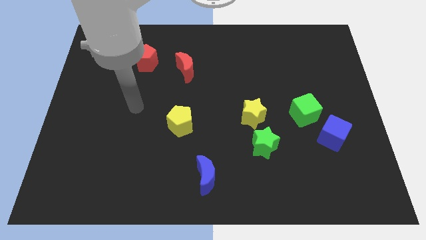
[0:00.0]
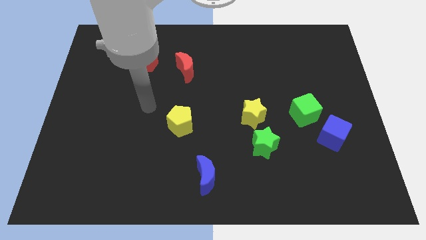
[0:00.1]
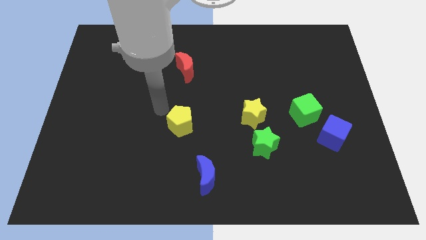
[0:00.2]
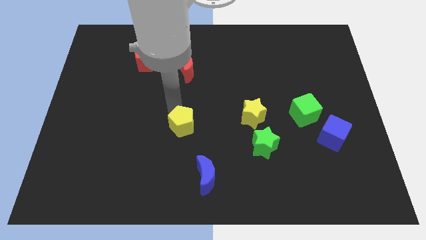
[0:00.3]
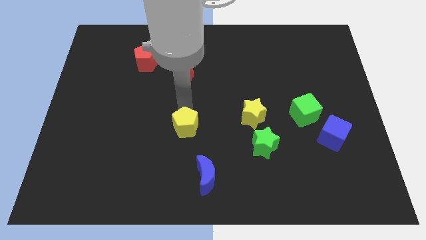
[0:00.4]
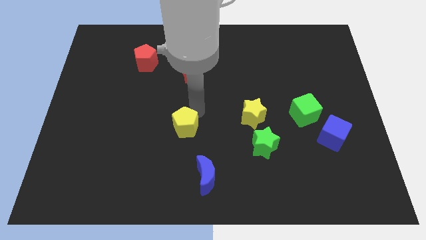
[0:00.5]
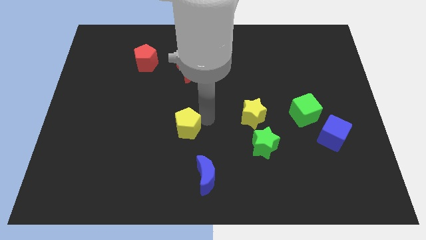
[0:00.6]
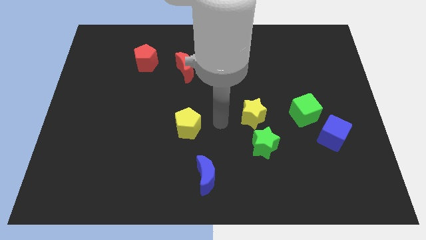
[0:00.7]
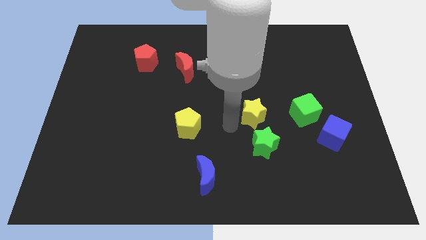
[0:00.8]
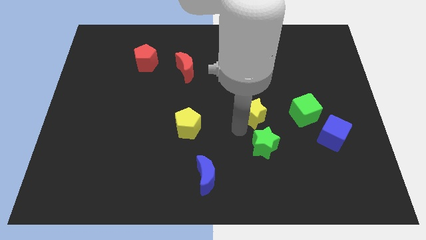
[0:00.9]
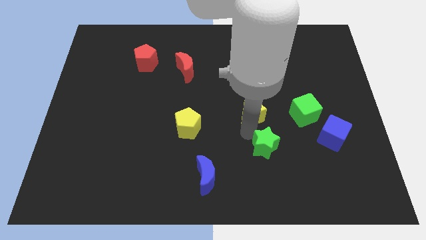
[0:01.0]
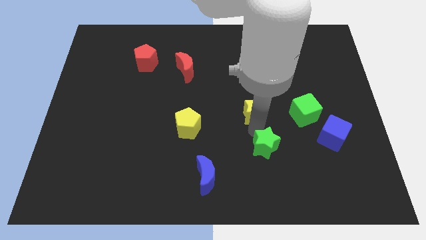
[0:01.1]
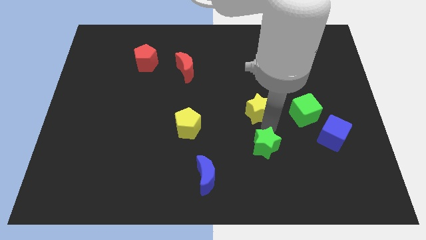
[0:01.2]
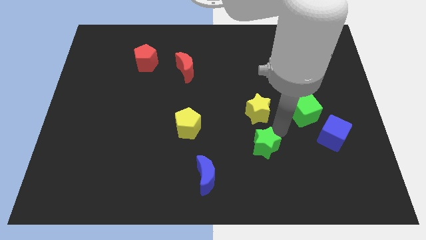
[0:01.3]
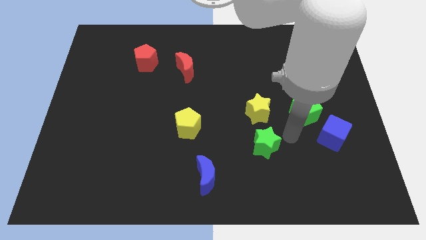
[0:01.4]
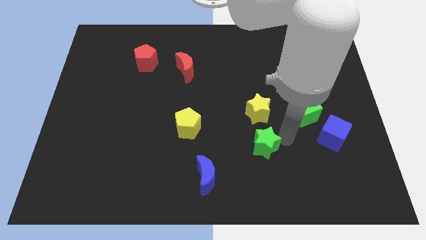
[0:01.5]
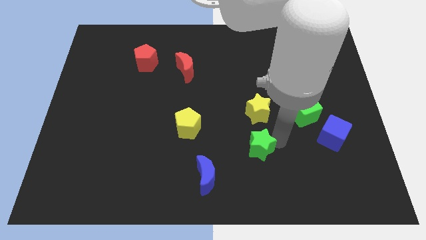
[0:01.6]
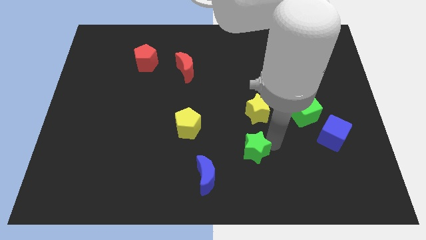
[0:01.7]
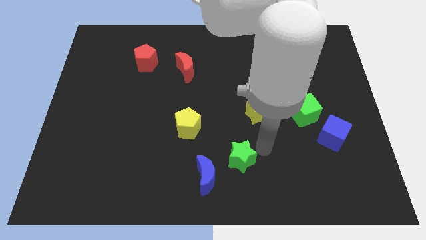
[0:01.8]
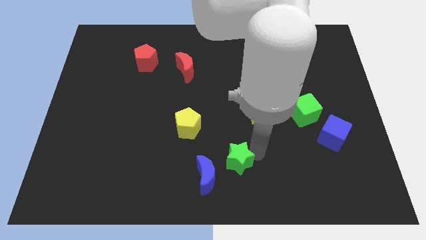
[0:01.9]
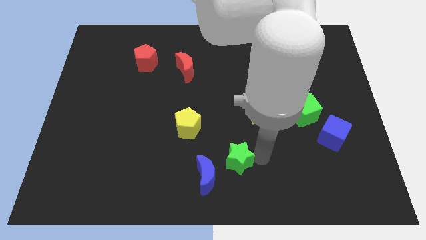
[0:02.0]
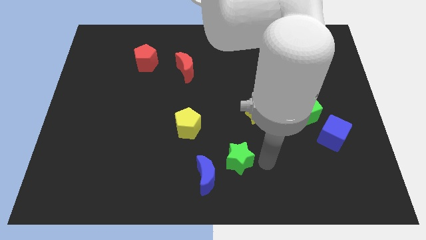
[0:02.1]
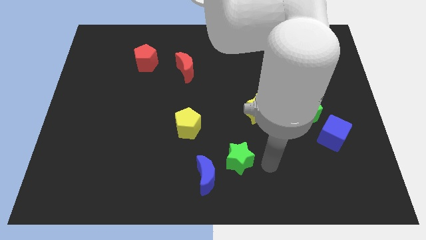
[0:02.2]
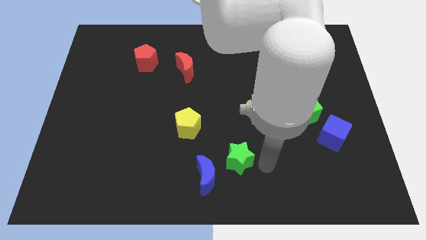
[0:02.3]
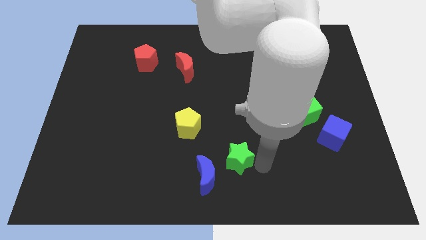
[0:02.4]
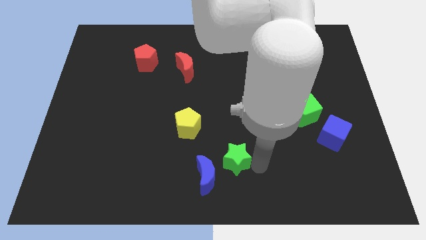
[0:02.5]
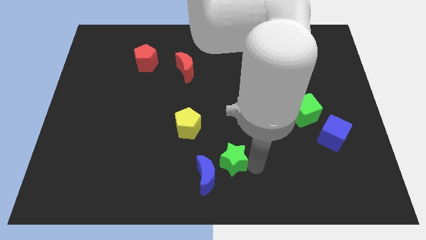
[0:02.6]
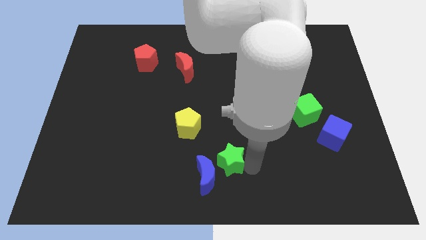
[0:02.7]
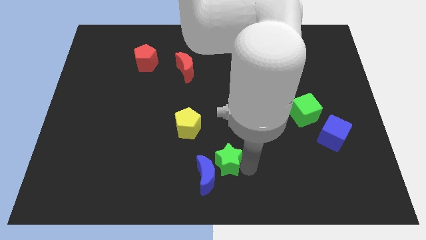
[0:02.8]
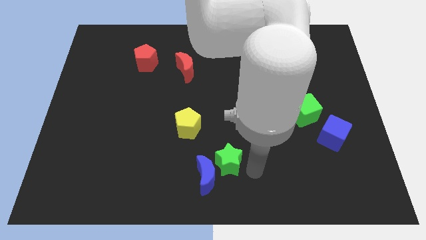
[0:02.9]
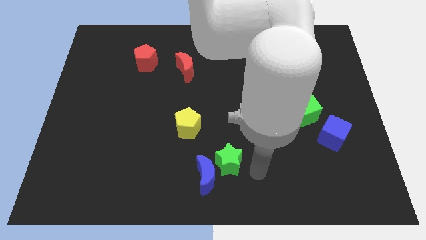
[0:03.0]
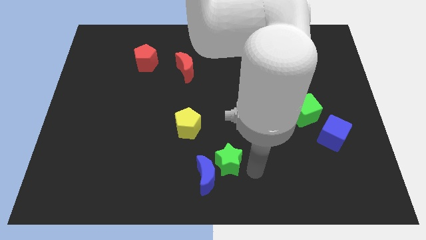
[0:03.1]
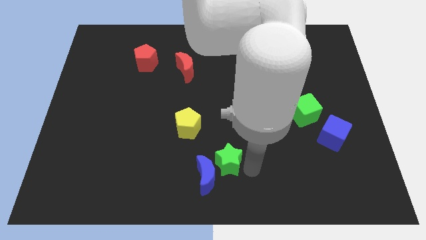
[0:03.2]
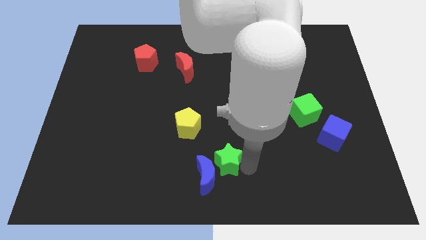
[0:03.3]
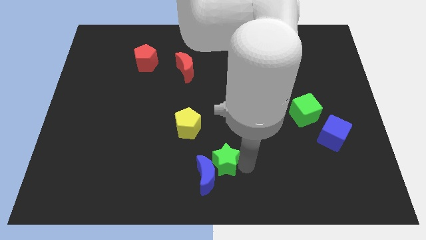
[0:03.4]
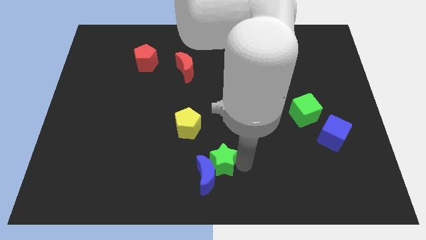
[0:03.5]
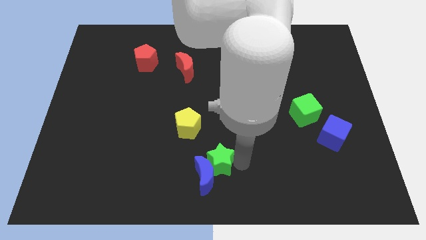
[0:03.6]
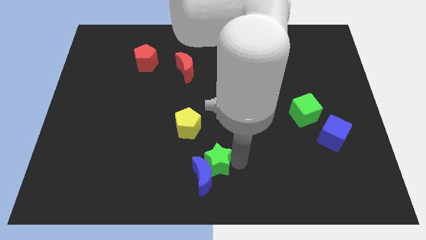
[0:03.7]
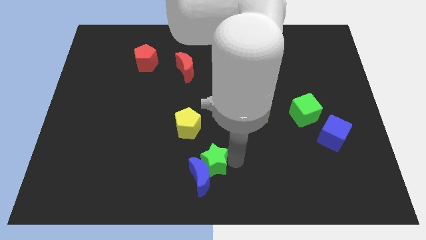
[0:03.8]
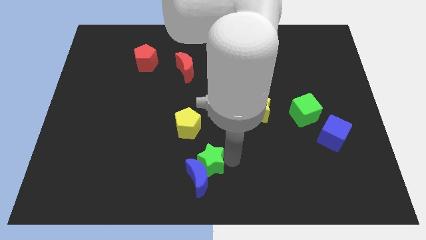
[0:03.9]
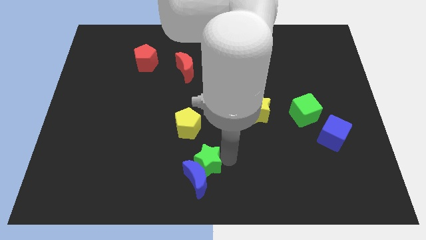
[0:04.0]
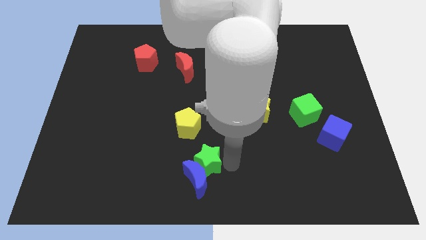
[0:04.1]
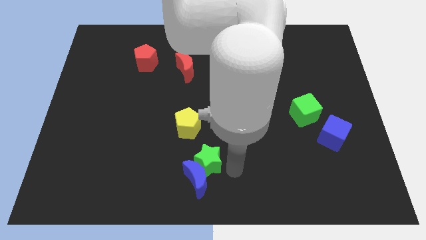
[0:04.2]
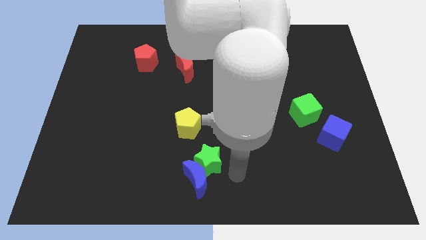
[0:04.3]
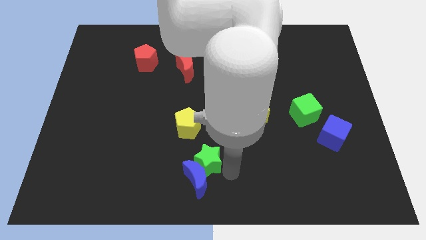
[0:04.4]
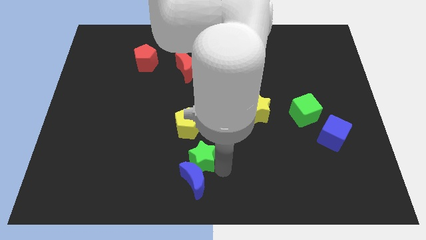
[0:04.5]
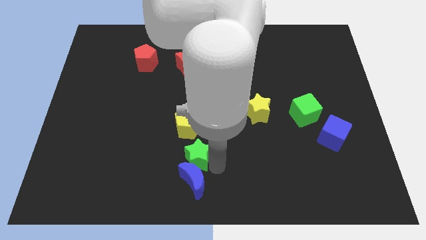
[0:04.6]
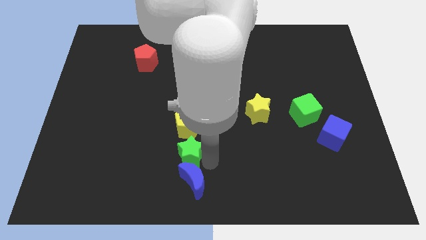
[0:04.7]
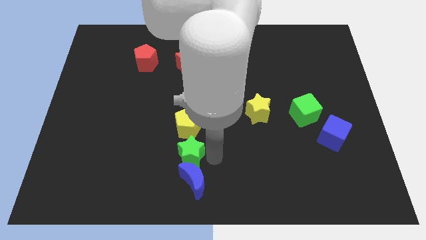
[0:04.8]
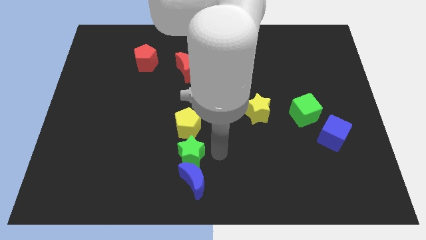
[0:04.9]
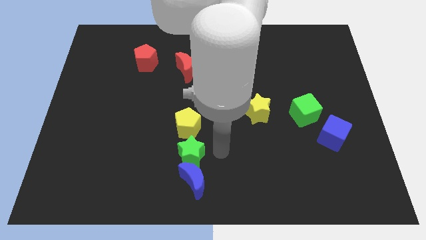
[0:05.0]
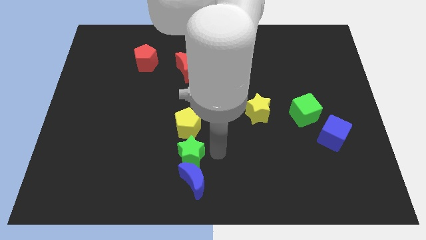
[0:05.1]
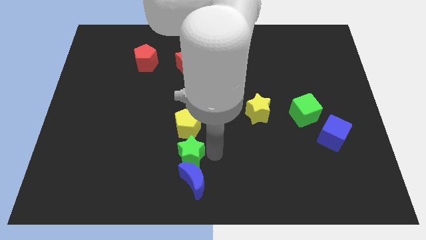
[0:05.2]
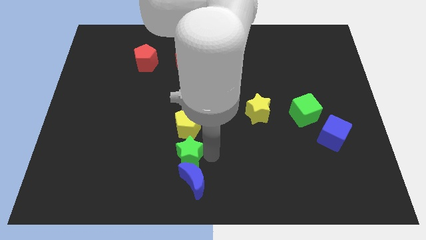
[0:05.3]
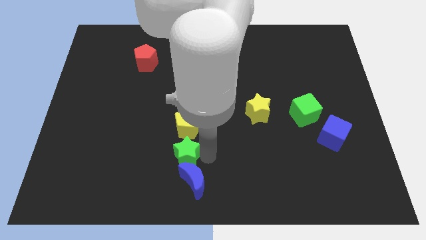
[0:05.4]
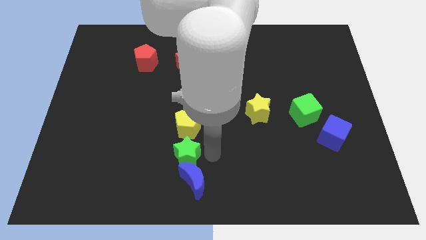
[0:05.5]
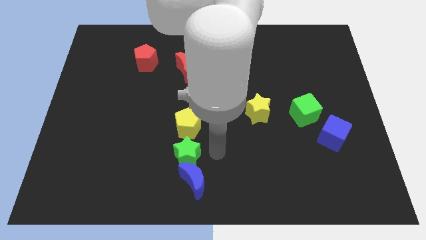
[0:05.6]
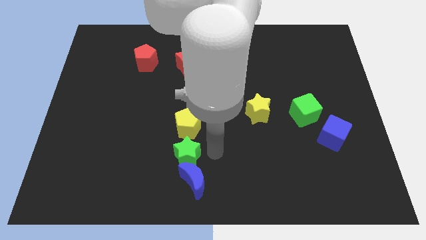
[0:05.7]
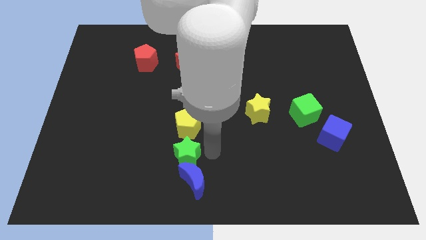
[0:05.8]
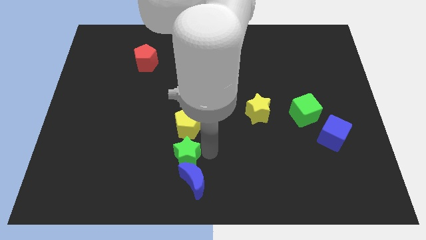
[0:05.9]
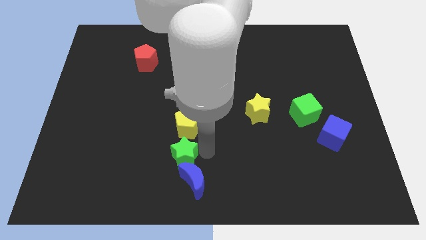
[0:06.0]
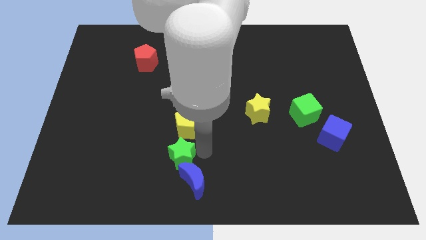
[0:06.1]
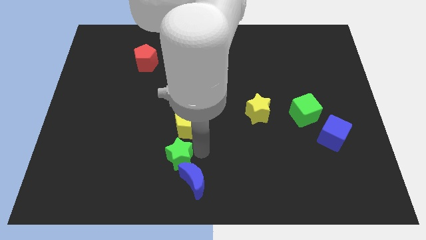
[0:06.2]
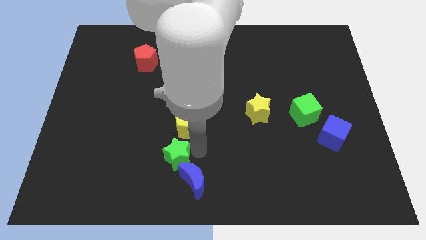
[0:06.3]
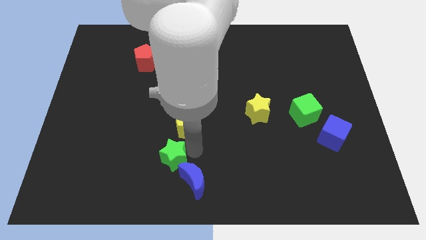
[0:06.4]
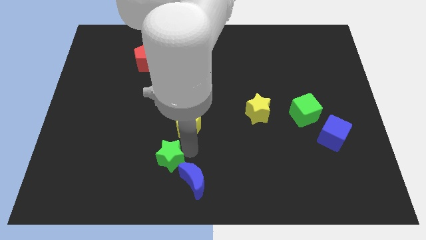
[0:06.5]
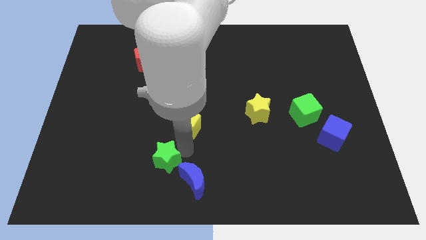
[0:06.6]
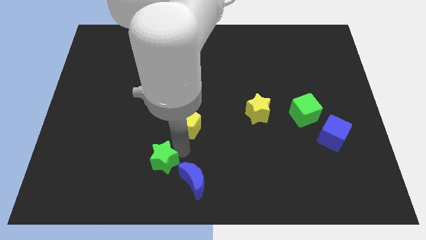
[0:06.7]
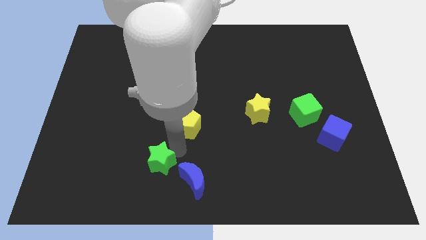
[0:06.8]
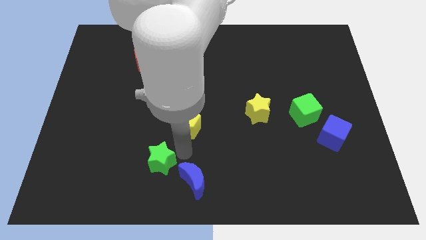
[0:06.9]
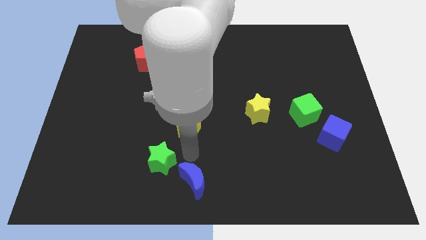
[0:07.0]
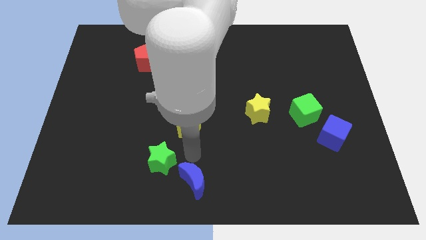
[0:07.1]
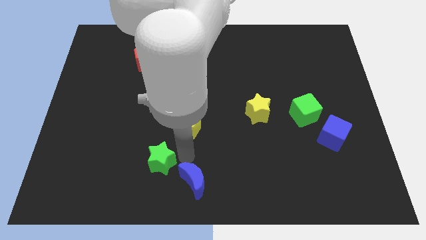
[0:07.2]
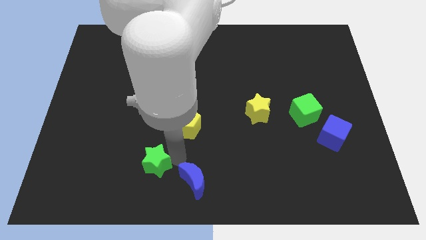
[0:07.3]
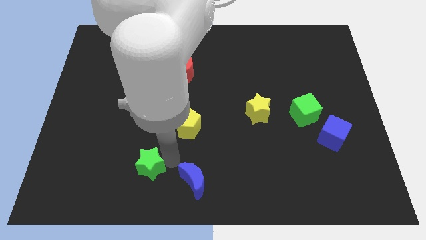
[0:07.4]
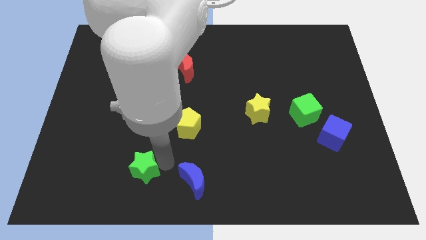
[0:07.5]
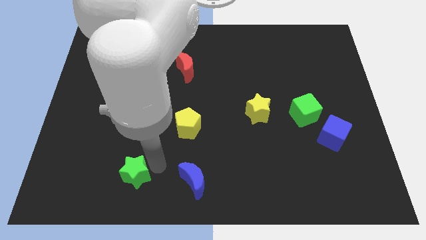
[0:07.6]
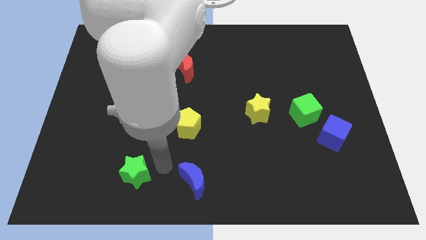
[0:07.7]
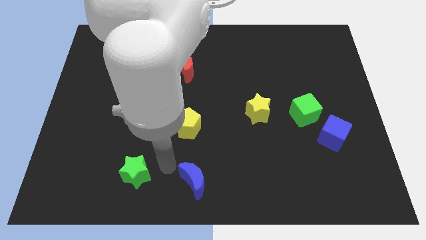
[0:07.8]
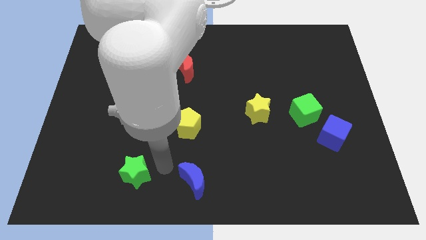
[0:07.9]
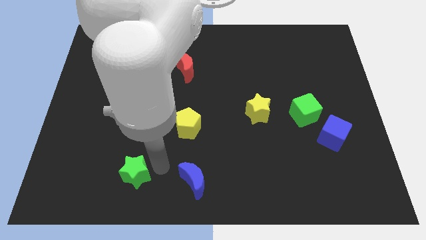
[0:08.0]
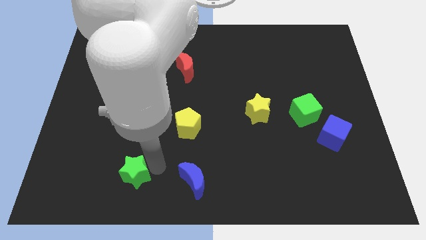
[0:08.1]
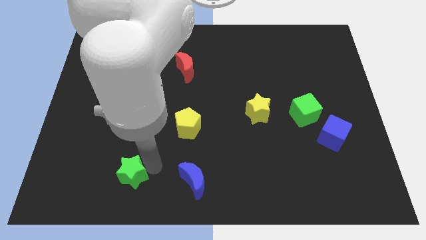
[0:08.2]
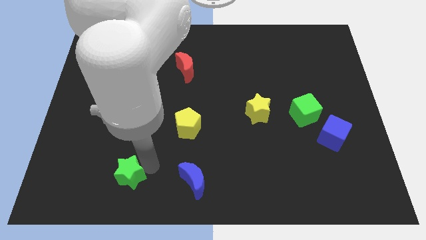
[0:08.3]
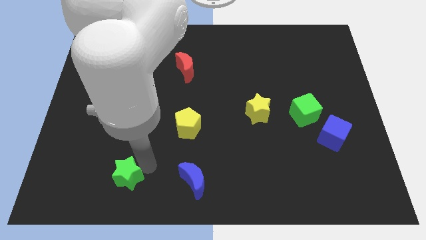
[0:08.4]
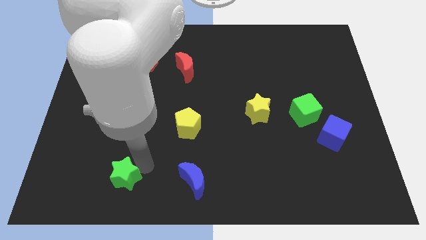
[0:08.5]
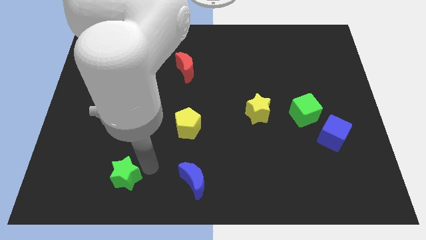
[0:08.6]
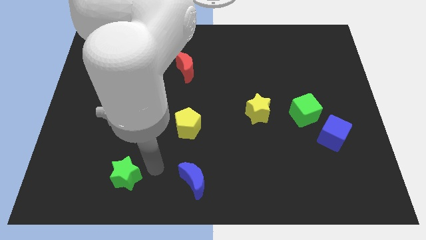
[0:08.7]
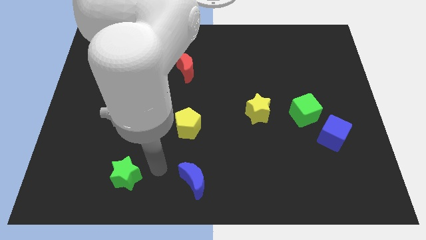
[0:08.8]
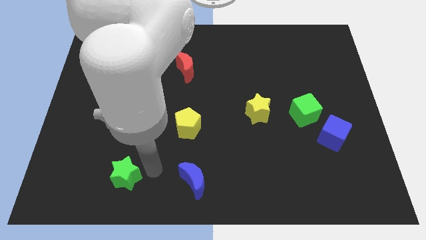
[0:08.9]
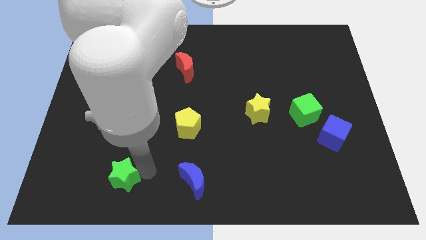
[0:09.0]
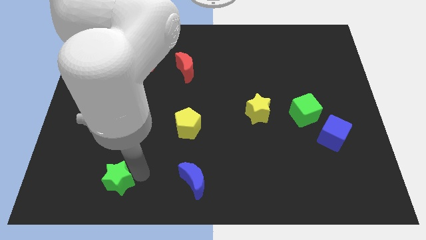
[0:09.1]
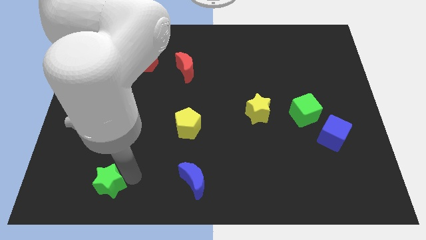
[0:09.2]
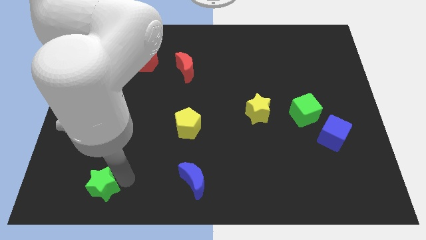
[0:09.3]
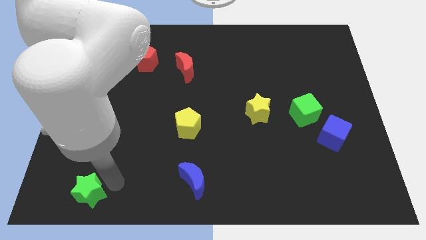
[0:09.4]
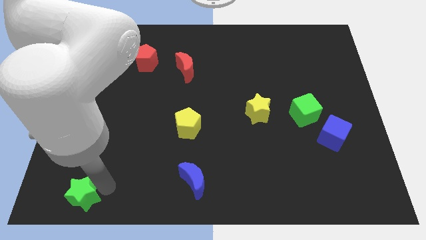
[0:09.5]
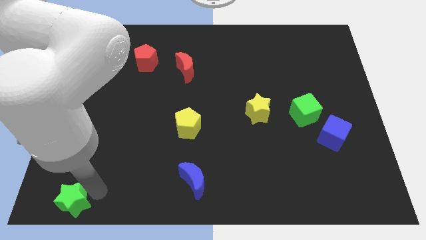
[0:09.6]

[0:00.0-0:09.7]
push the green star to the bottom left
